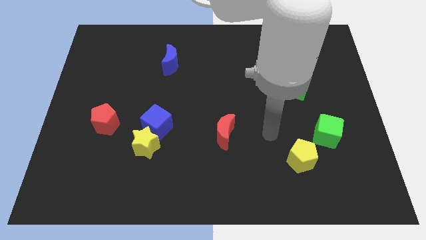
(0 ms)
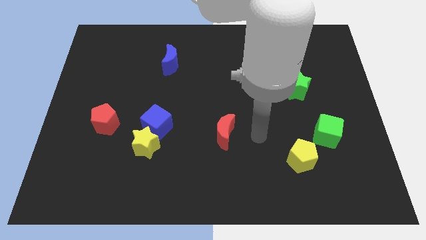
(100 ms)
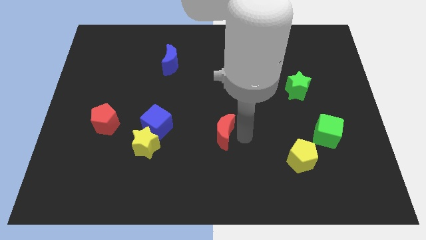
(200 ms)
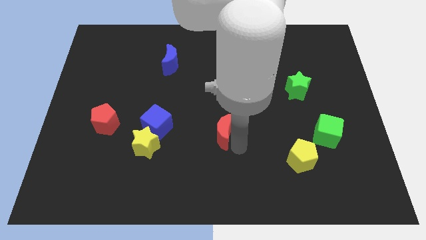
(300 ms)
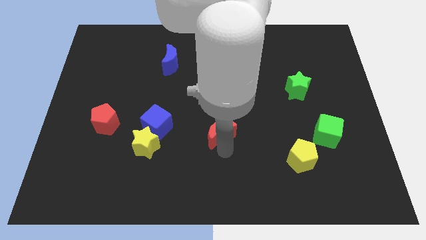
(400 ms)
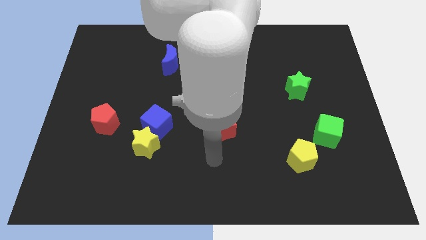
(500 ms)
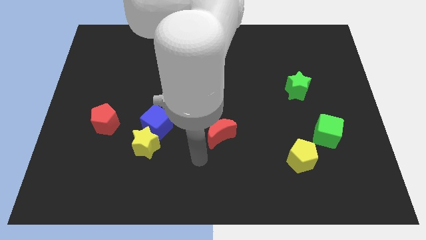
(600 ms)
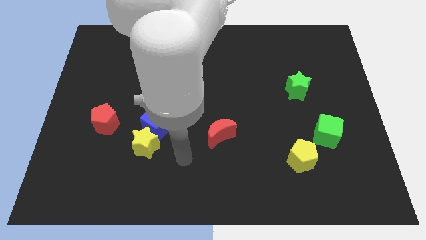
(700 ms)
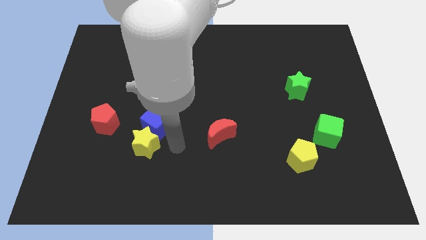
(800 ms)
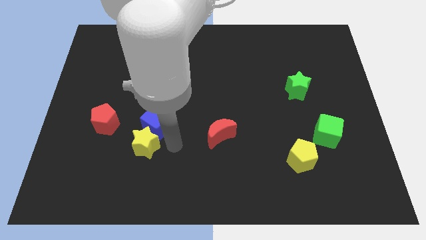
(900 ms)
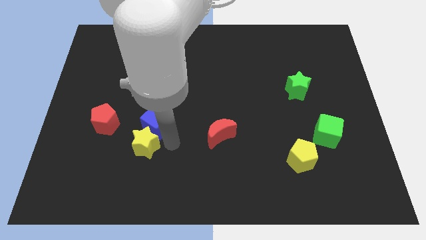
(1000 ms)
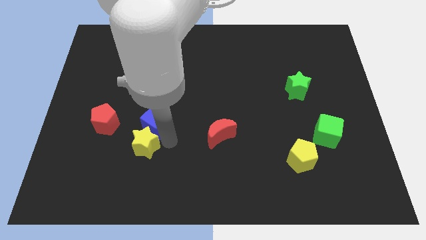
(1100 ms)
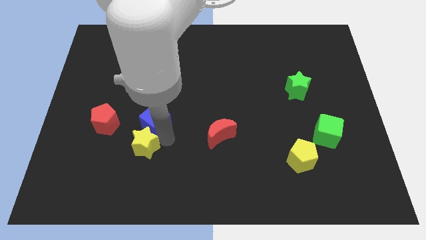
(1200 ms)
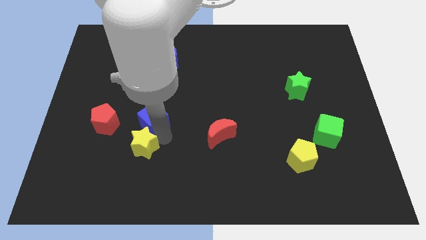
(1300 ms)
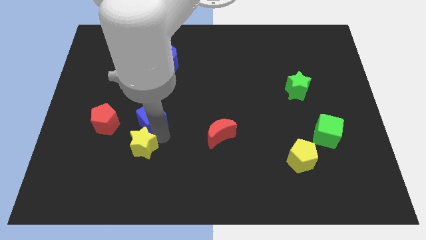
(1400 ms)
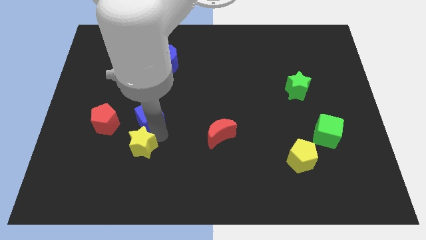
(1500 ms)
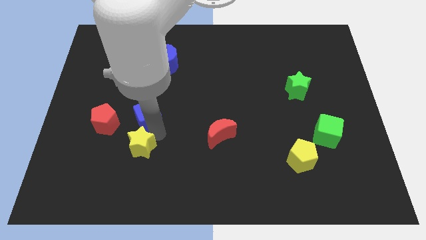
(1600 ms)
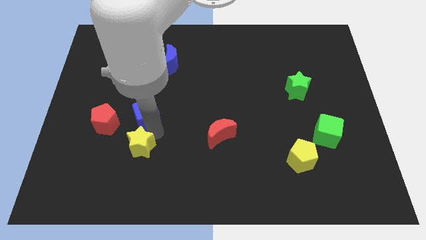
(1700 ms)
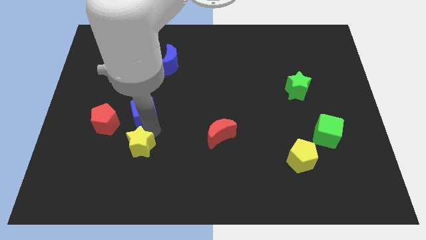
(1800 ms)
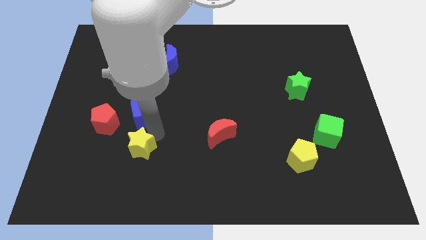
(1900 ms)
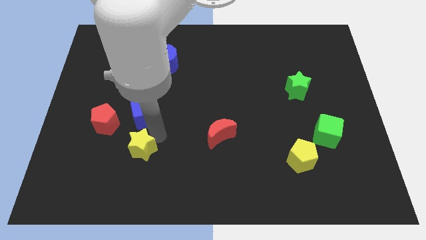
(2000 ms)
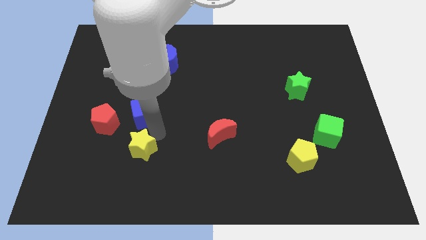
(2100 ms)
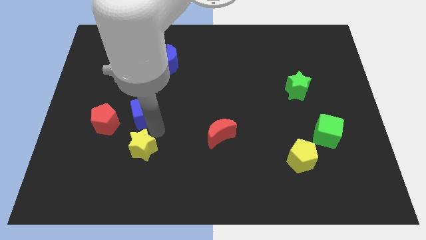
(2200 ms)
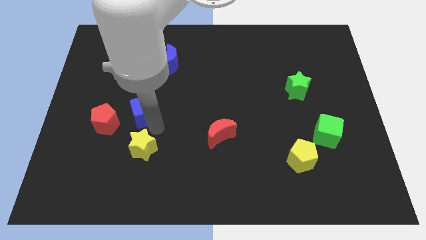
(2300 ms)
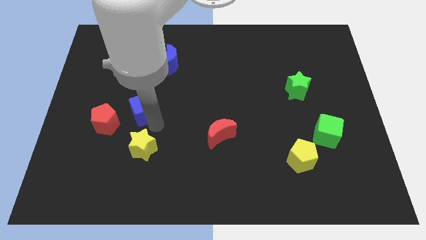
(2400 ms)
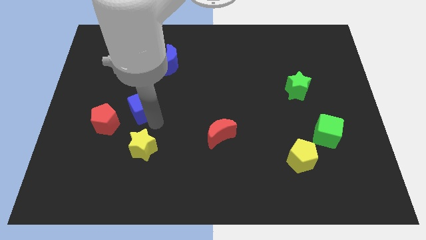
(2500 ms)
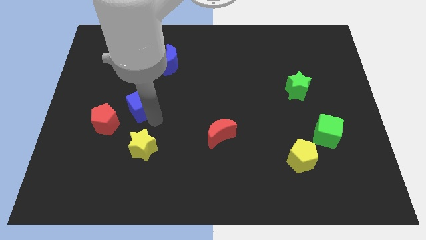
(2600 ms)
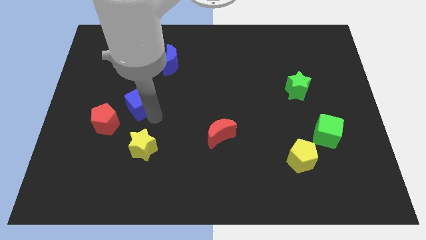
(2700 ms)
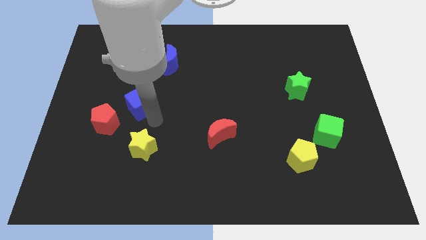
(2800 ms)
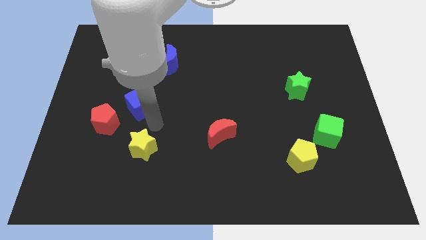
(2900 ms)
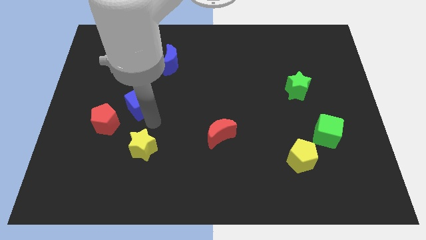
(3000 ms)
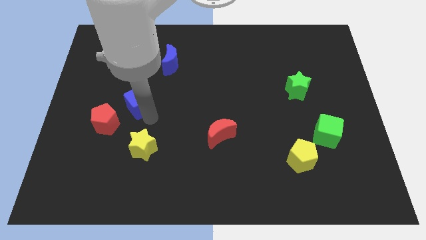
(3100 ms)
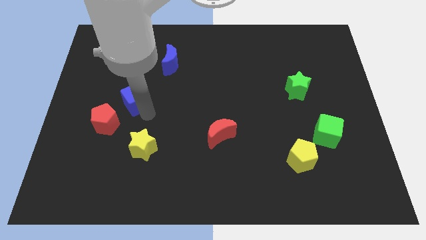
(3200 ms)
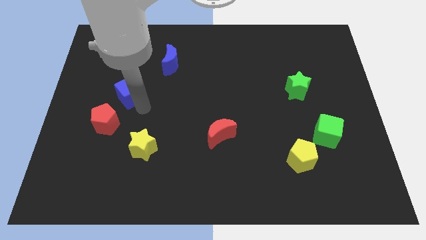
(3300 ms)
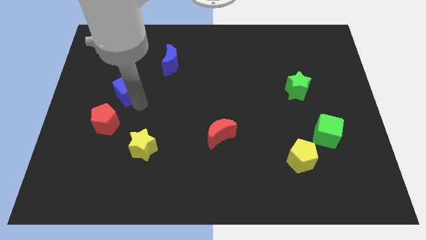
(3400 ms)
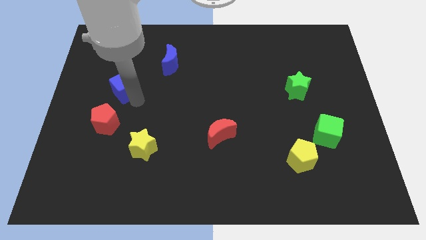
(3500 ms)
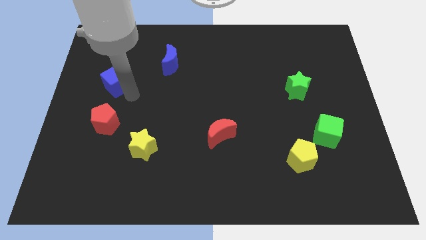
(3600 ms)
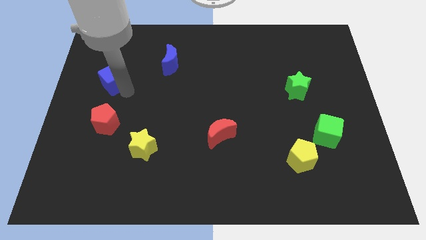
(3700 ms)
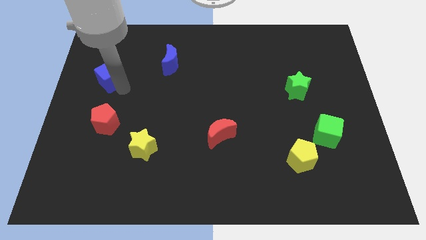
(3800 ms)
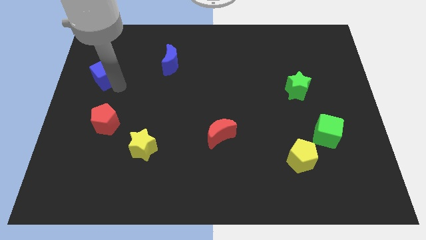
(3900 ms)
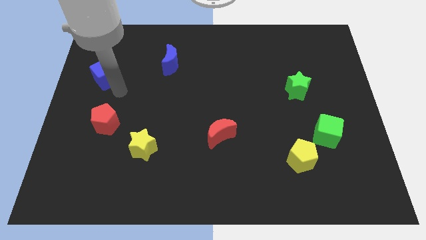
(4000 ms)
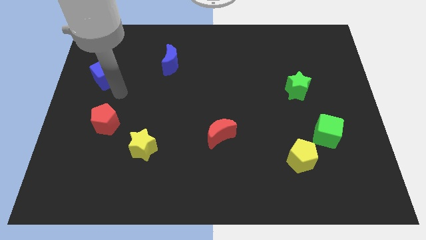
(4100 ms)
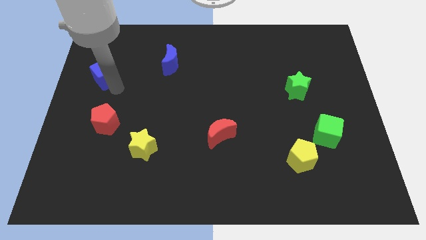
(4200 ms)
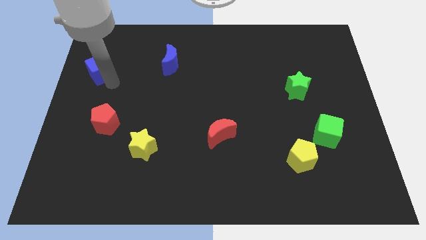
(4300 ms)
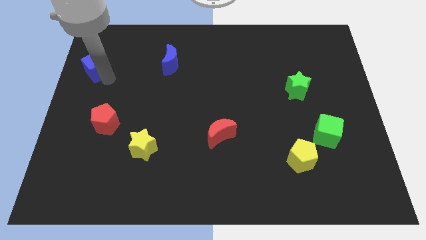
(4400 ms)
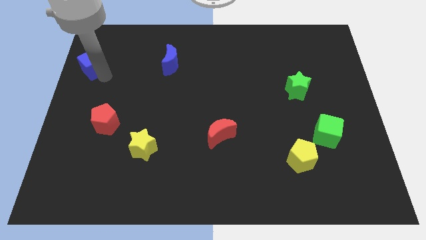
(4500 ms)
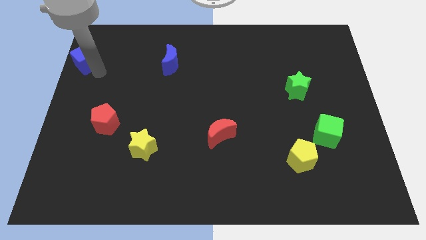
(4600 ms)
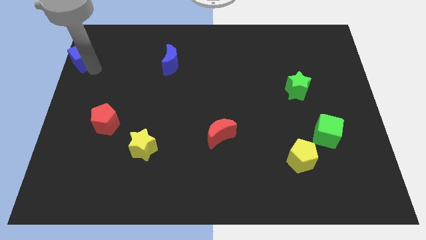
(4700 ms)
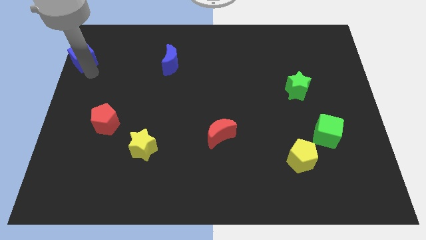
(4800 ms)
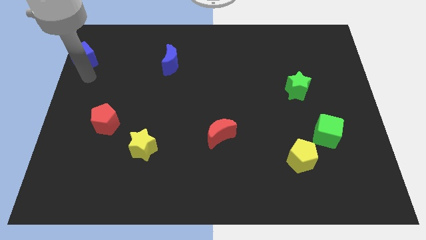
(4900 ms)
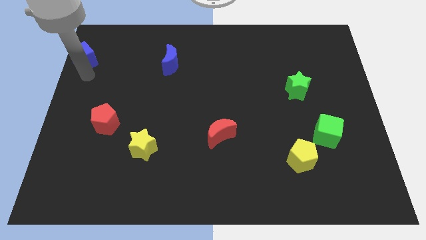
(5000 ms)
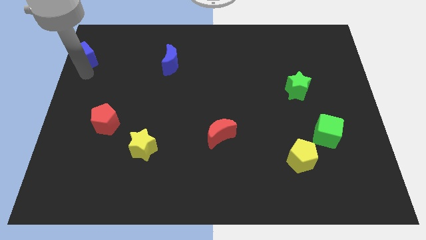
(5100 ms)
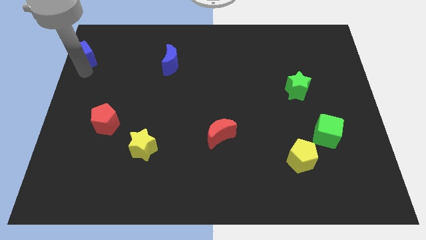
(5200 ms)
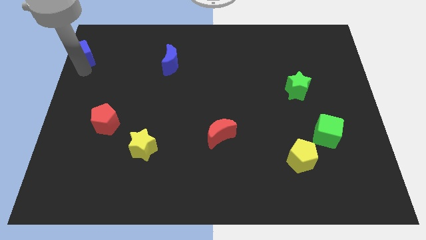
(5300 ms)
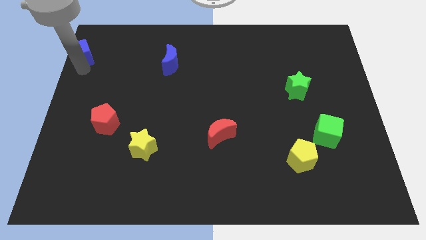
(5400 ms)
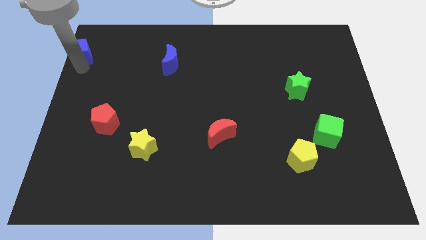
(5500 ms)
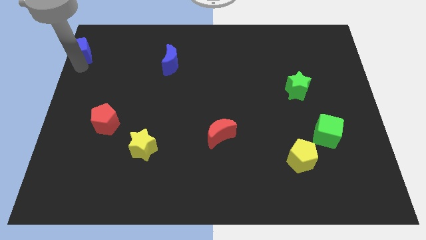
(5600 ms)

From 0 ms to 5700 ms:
slide the blue cube to the top left of the board

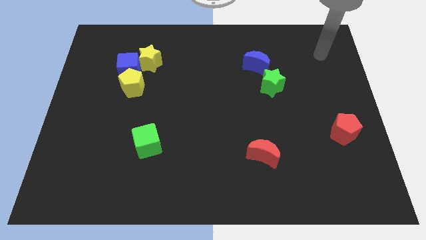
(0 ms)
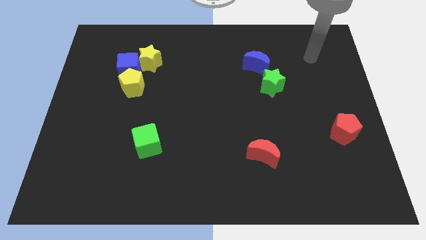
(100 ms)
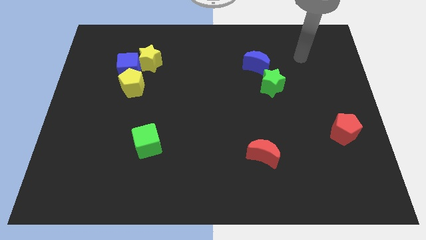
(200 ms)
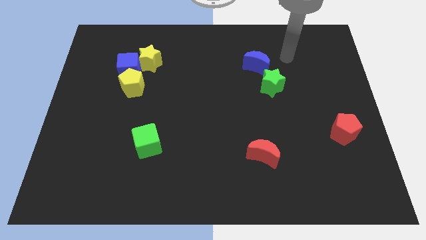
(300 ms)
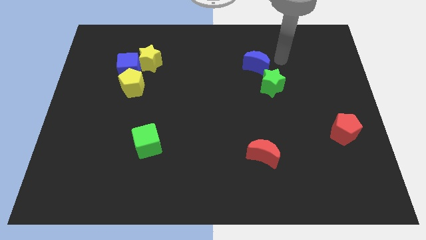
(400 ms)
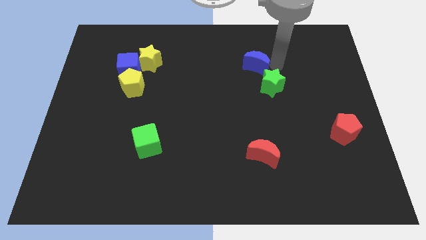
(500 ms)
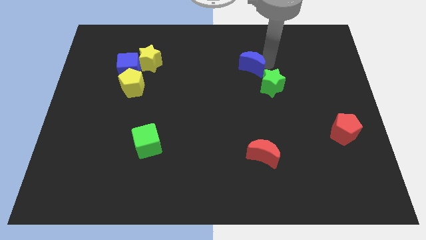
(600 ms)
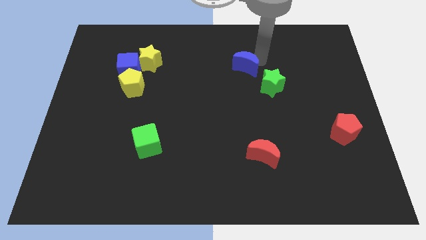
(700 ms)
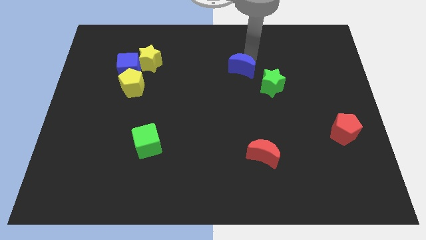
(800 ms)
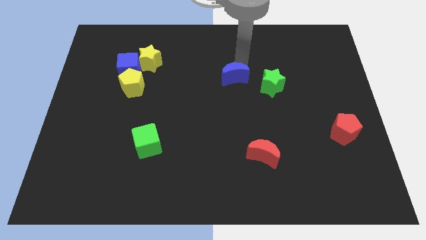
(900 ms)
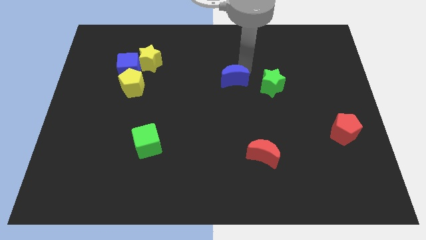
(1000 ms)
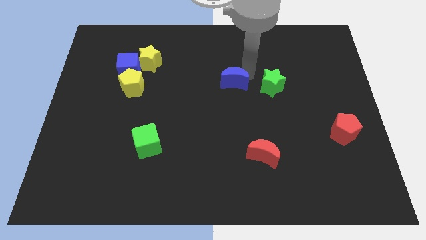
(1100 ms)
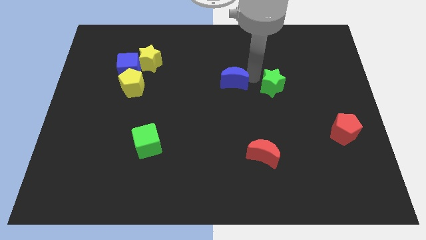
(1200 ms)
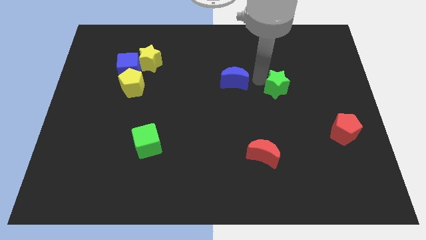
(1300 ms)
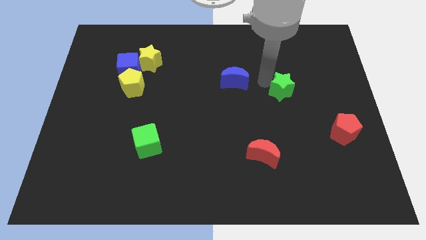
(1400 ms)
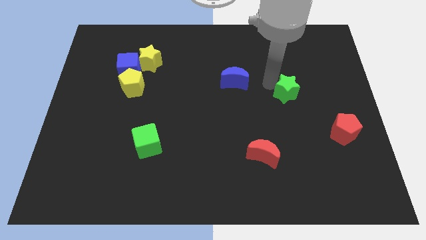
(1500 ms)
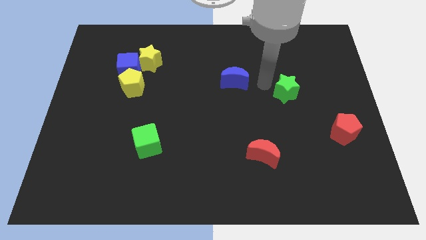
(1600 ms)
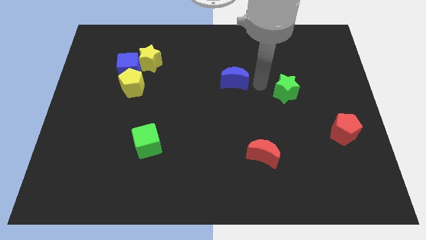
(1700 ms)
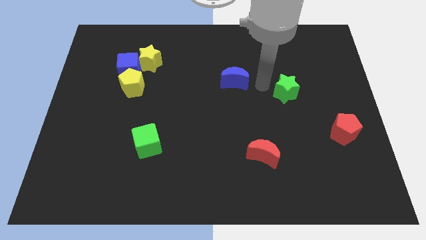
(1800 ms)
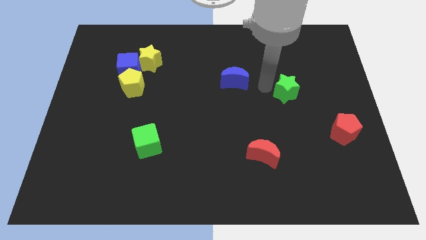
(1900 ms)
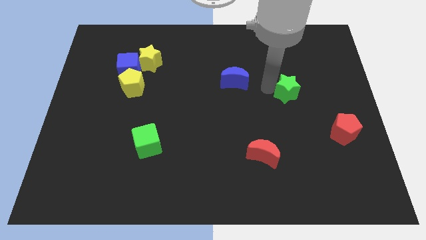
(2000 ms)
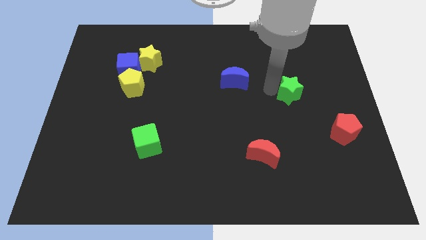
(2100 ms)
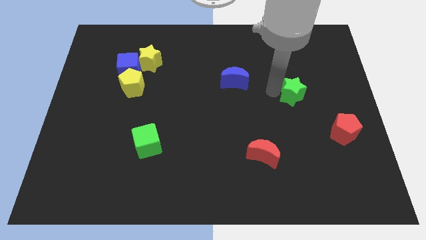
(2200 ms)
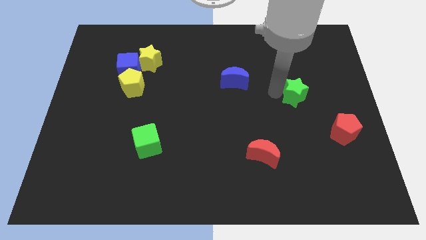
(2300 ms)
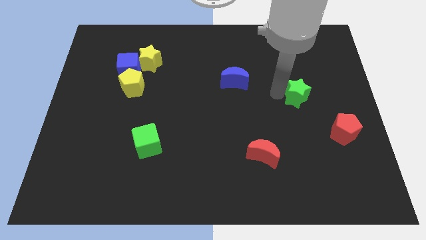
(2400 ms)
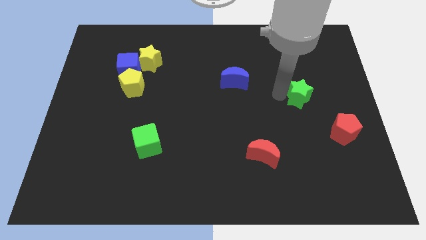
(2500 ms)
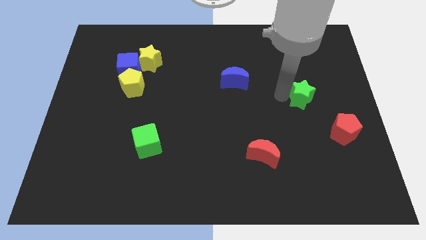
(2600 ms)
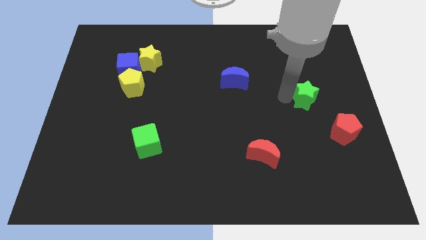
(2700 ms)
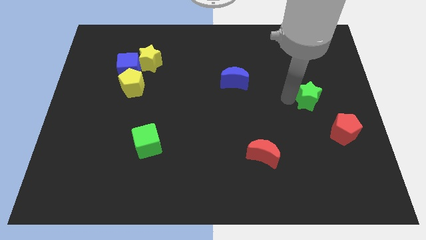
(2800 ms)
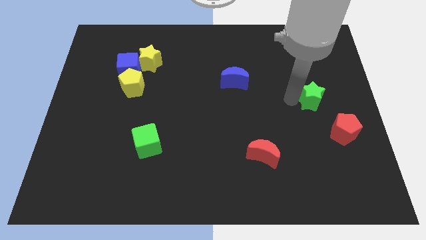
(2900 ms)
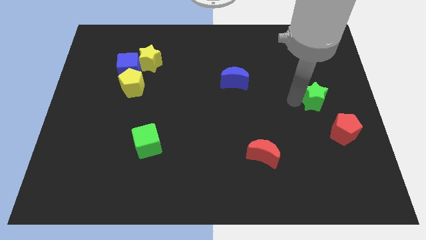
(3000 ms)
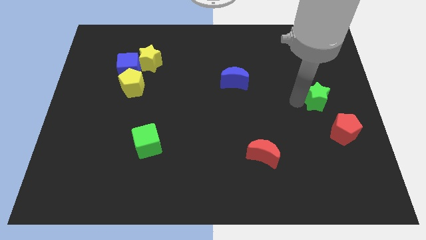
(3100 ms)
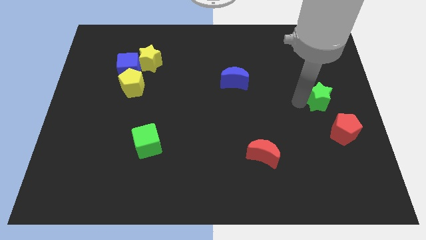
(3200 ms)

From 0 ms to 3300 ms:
move the green star to the right side of the board
